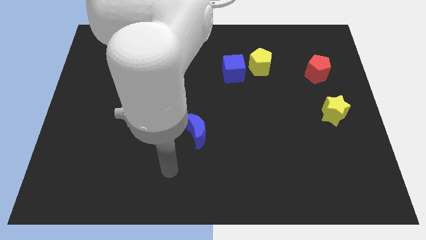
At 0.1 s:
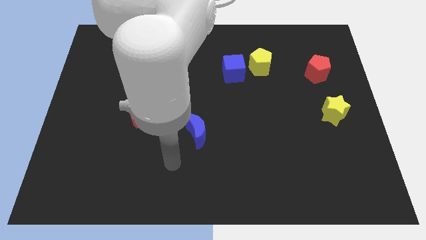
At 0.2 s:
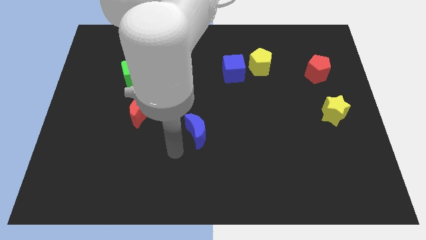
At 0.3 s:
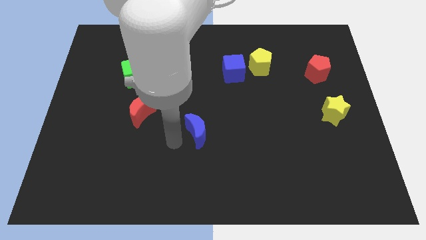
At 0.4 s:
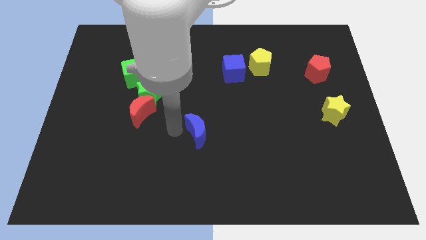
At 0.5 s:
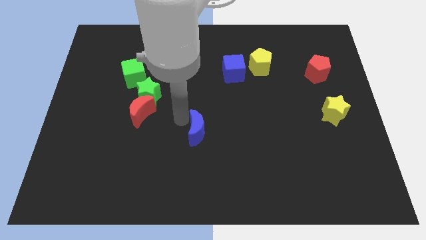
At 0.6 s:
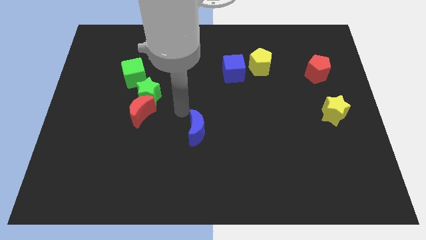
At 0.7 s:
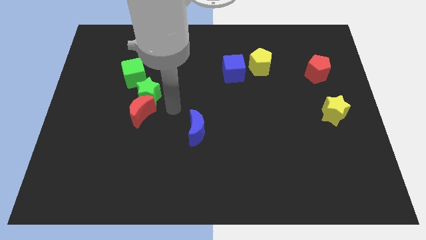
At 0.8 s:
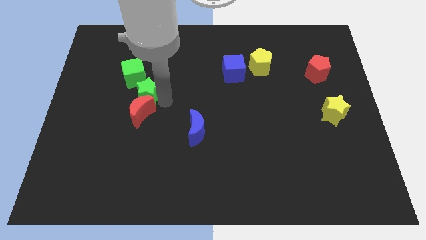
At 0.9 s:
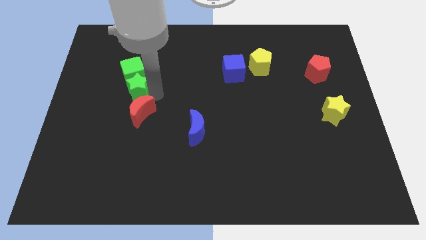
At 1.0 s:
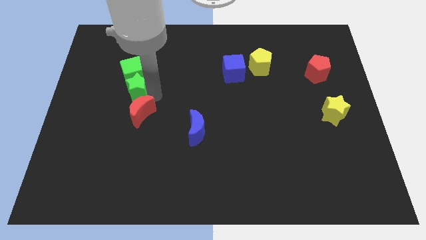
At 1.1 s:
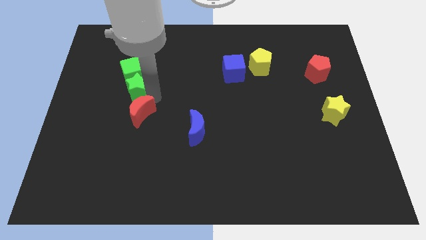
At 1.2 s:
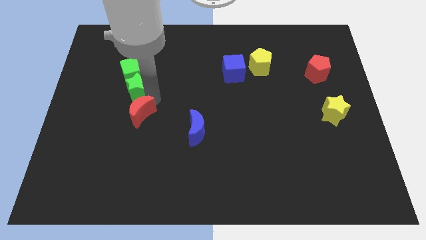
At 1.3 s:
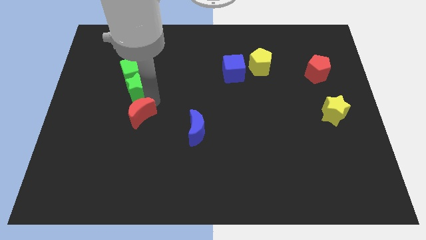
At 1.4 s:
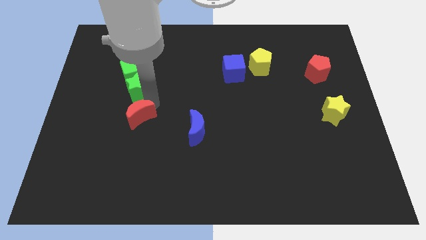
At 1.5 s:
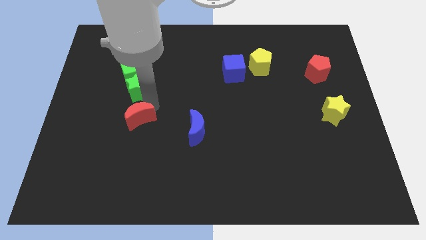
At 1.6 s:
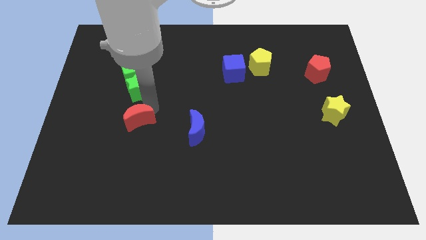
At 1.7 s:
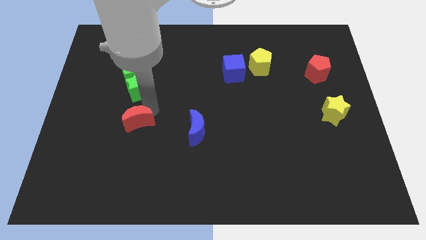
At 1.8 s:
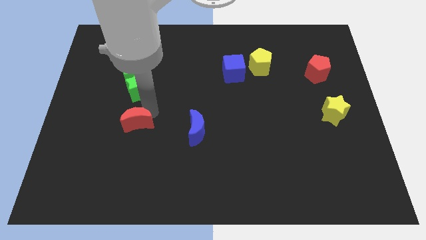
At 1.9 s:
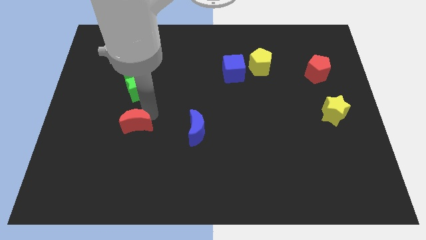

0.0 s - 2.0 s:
separate the red moon from the green star

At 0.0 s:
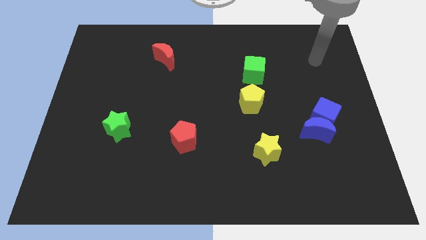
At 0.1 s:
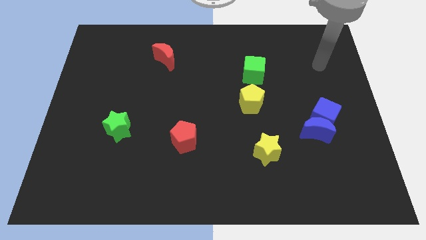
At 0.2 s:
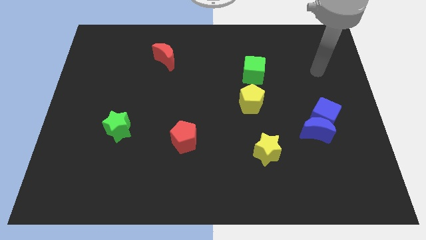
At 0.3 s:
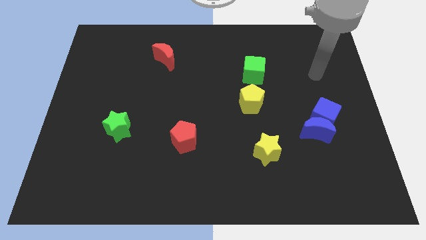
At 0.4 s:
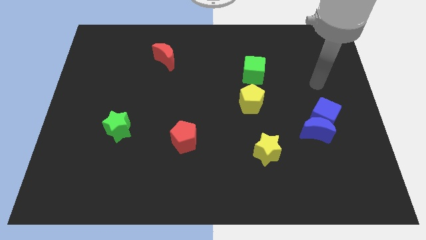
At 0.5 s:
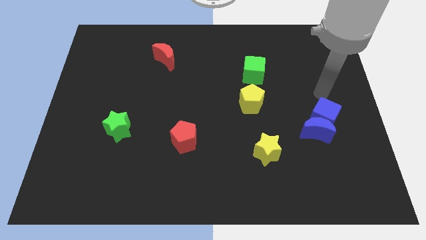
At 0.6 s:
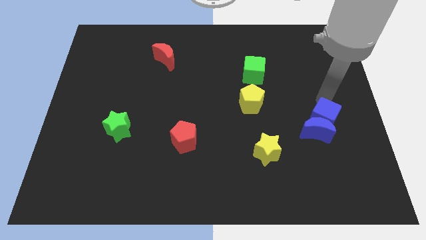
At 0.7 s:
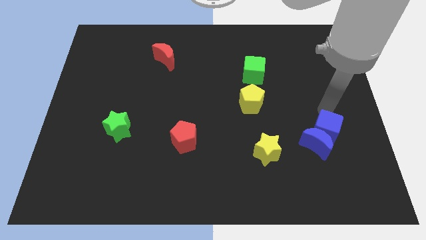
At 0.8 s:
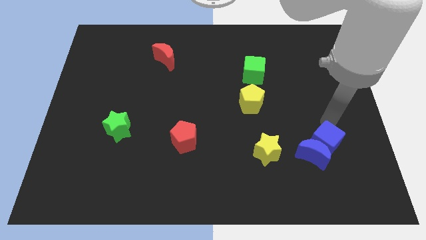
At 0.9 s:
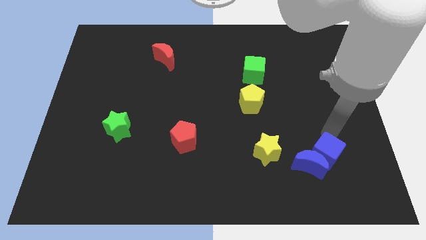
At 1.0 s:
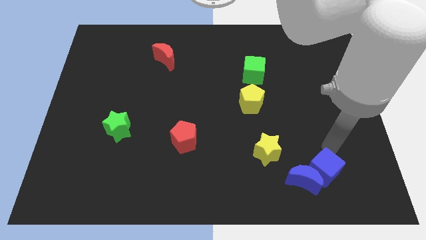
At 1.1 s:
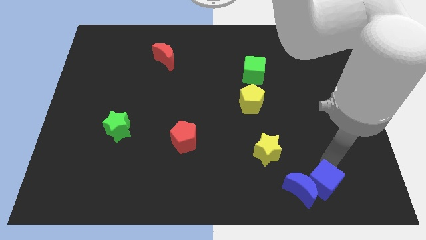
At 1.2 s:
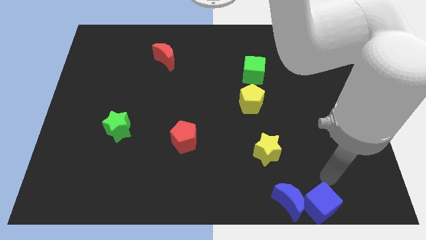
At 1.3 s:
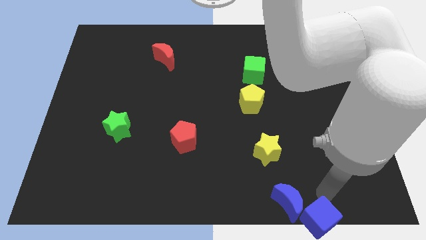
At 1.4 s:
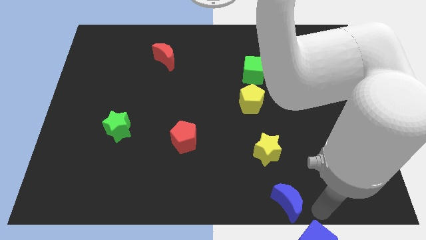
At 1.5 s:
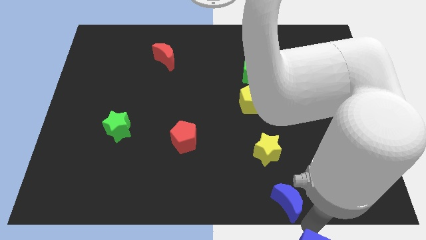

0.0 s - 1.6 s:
pull the blue moon apart from the blue cube

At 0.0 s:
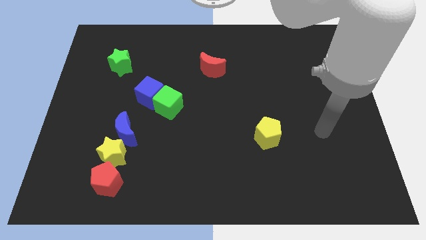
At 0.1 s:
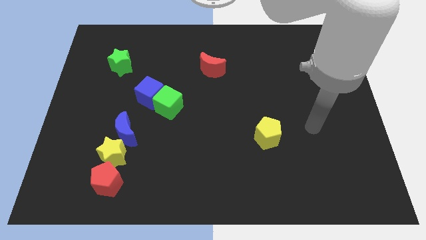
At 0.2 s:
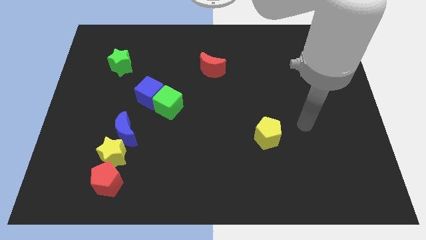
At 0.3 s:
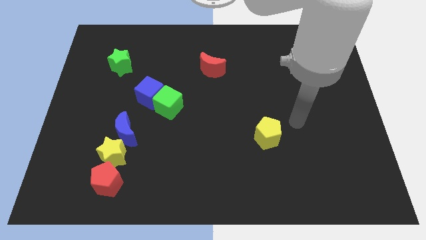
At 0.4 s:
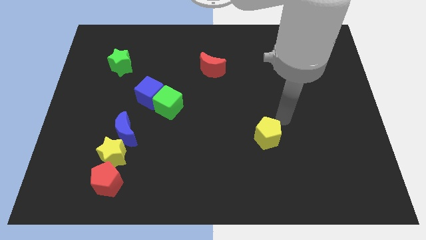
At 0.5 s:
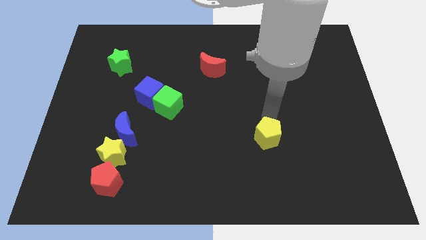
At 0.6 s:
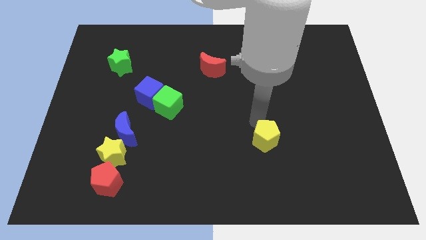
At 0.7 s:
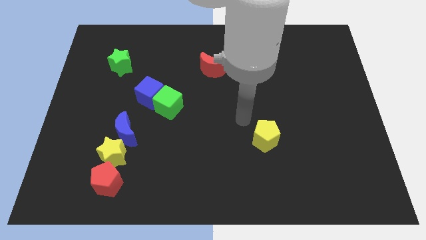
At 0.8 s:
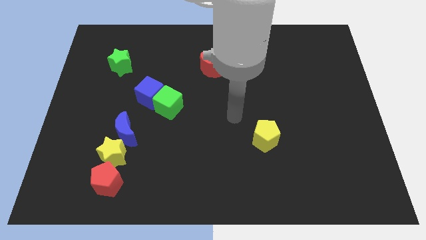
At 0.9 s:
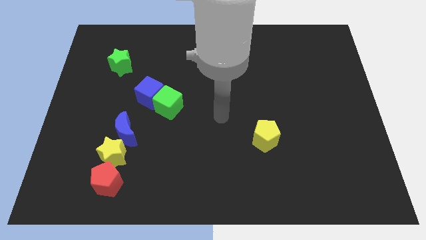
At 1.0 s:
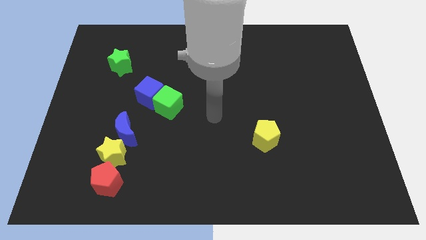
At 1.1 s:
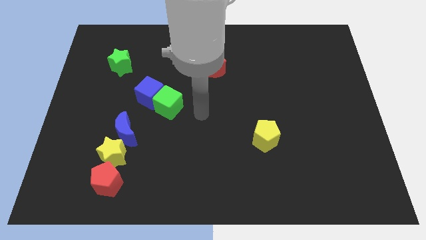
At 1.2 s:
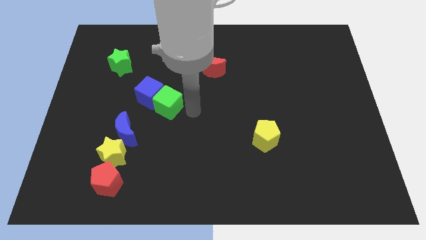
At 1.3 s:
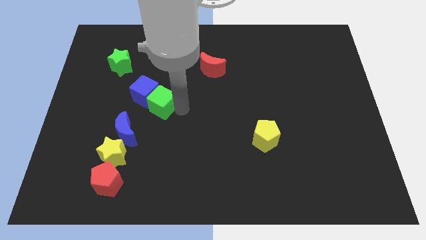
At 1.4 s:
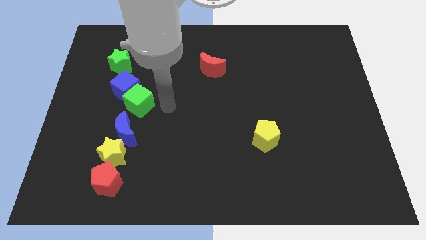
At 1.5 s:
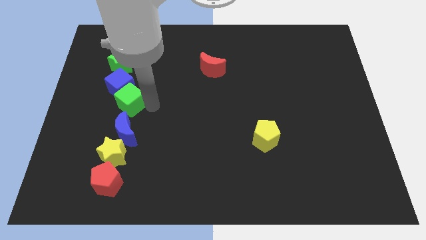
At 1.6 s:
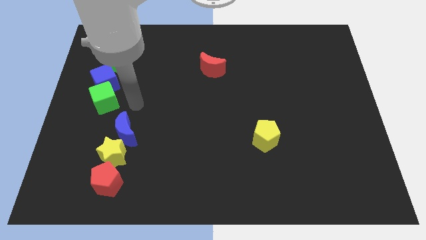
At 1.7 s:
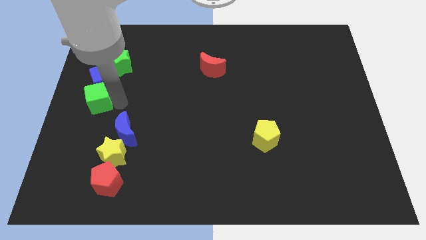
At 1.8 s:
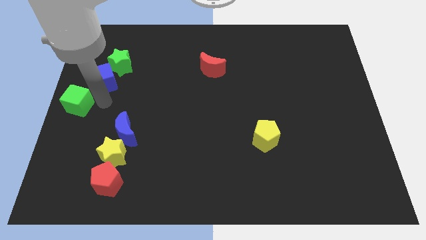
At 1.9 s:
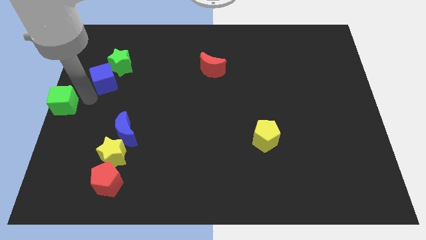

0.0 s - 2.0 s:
move the blue cube away from the green cube

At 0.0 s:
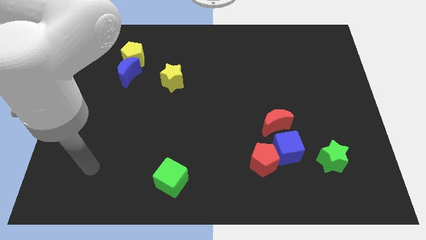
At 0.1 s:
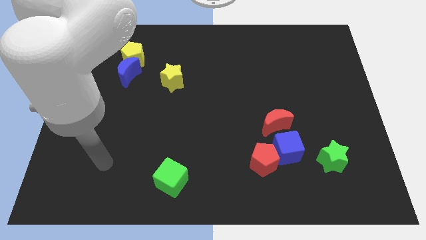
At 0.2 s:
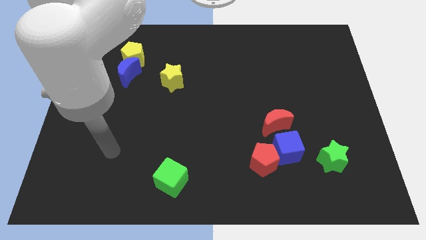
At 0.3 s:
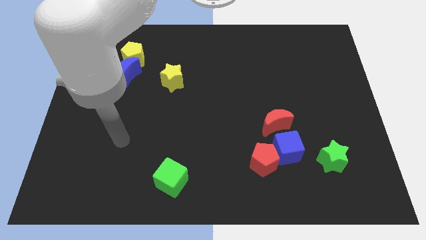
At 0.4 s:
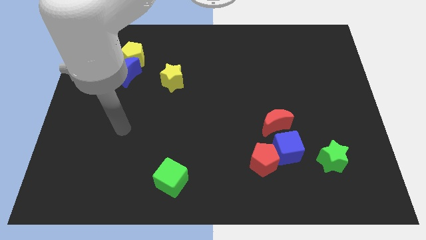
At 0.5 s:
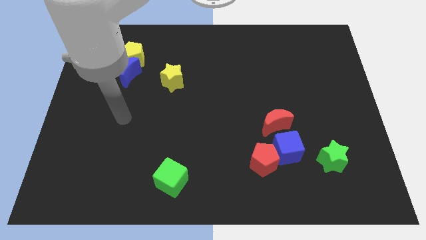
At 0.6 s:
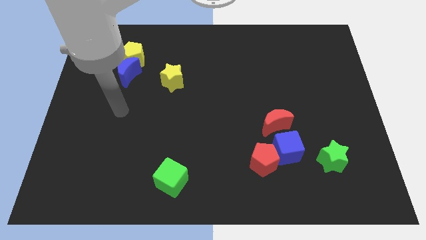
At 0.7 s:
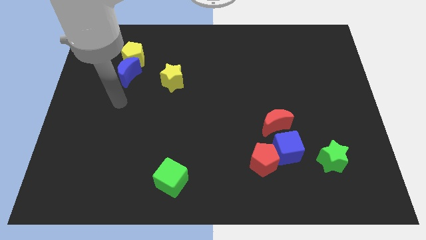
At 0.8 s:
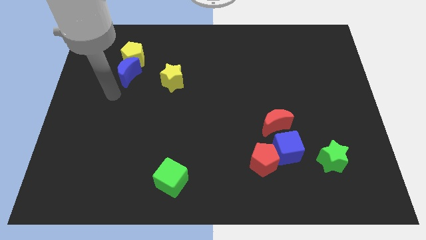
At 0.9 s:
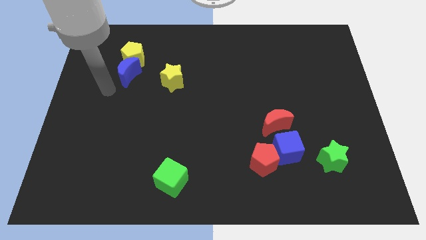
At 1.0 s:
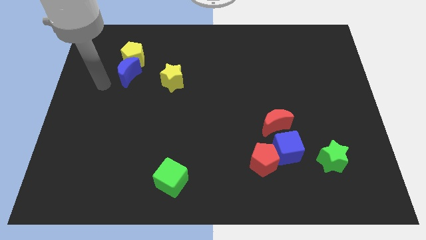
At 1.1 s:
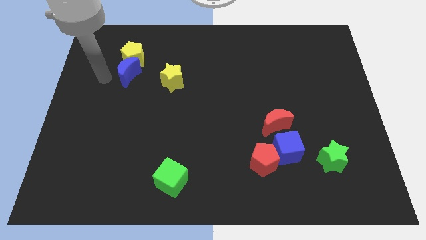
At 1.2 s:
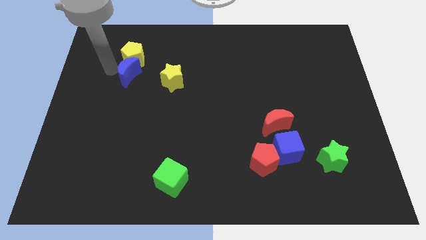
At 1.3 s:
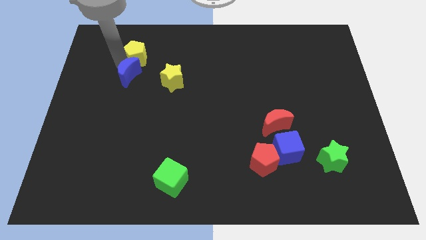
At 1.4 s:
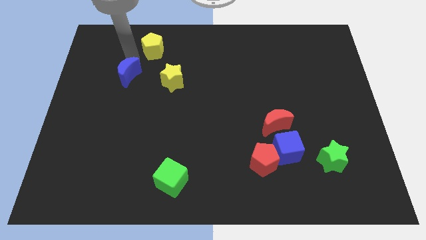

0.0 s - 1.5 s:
pull the blue moon apart from the yellow pentagon

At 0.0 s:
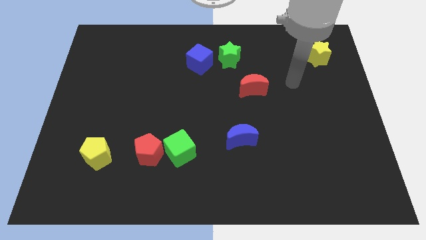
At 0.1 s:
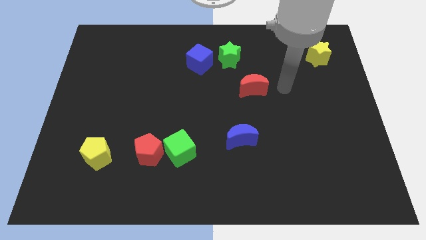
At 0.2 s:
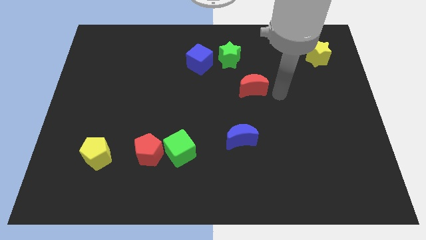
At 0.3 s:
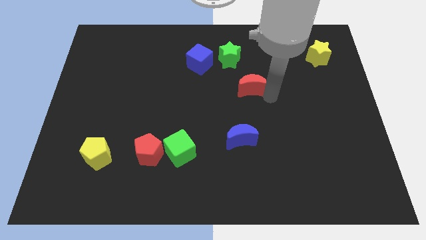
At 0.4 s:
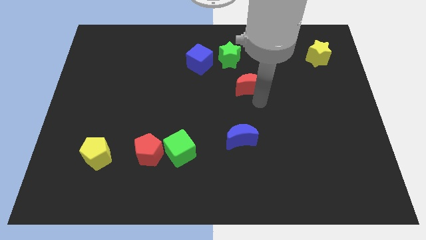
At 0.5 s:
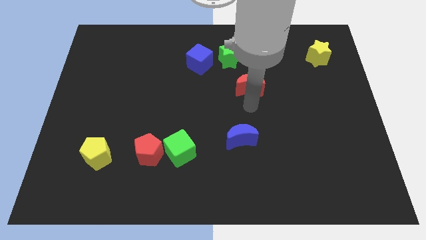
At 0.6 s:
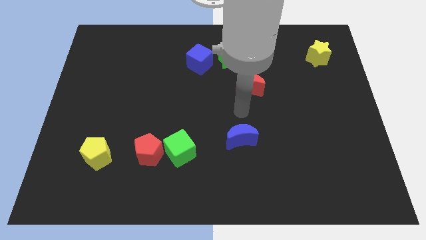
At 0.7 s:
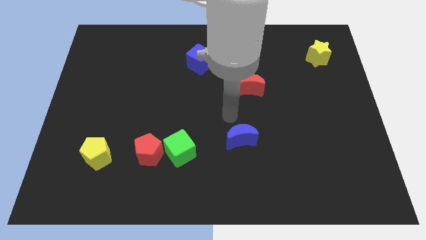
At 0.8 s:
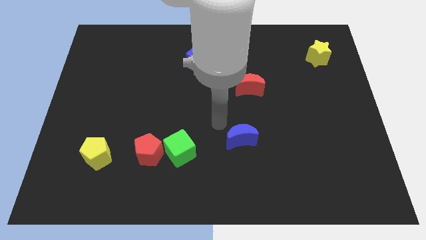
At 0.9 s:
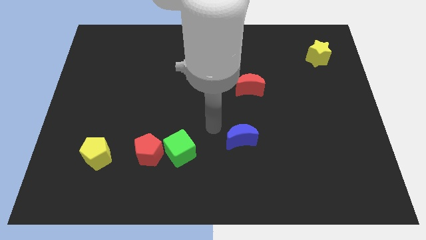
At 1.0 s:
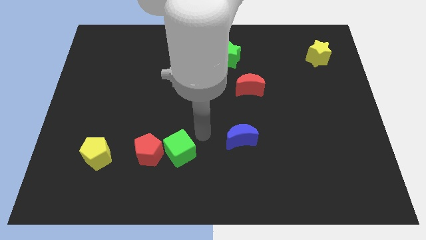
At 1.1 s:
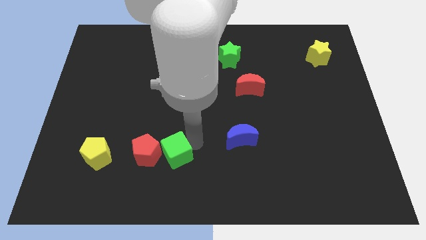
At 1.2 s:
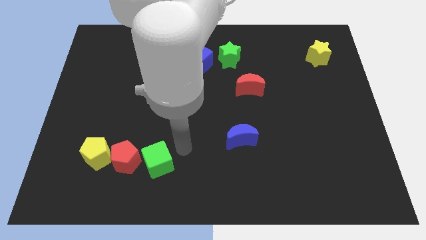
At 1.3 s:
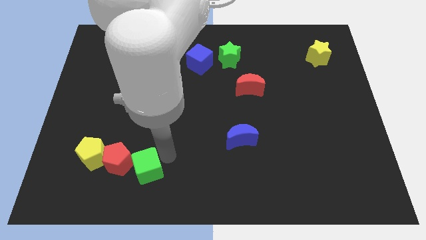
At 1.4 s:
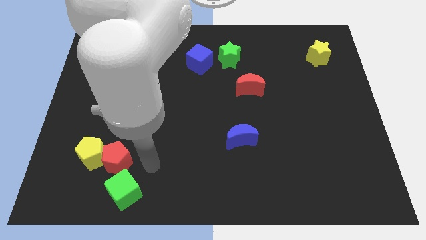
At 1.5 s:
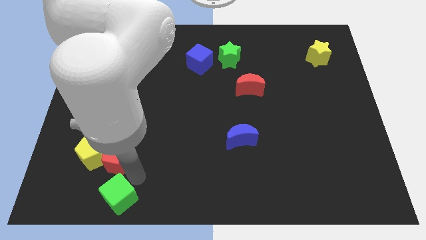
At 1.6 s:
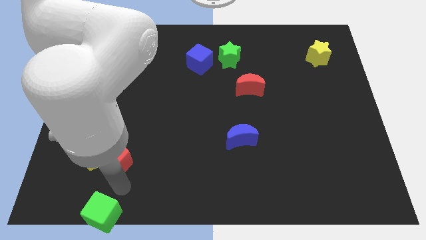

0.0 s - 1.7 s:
separate the red pentagon from the green cube

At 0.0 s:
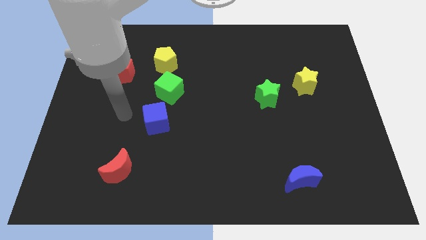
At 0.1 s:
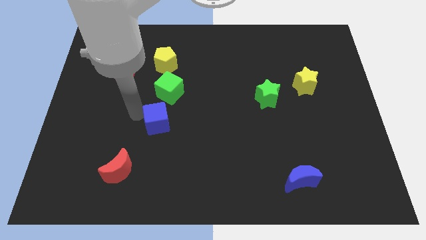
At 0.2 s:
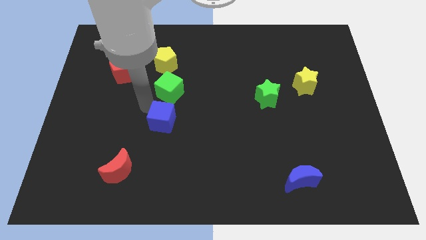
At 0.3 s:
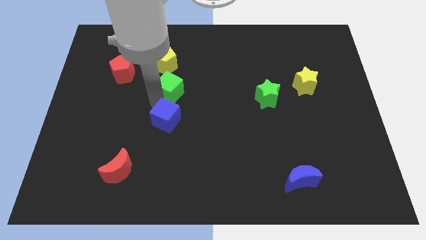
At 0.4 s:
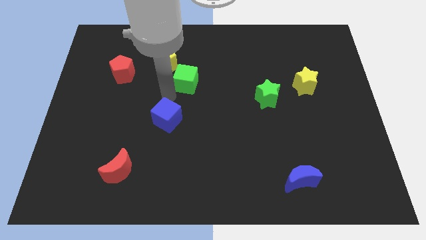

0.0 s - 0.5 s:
separate the blue cube from the green cube

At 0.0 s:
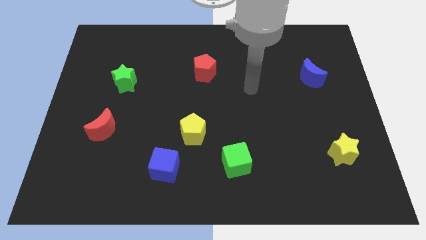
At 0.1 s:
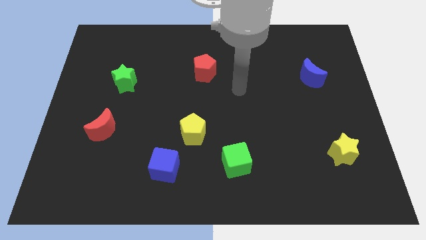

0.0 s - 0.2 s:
separate the blue cube from the yellow pentagon
